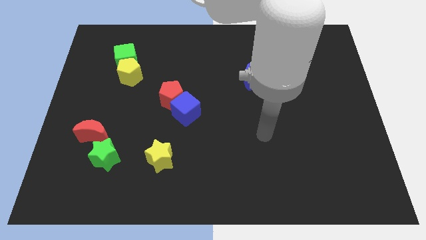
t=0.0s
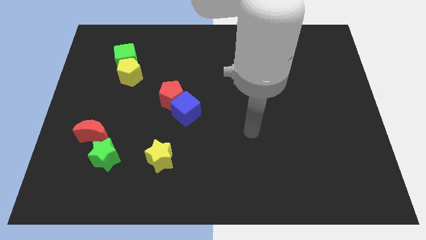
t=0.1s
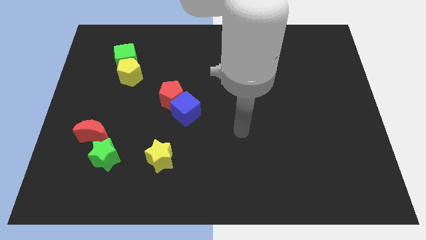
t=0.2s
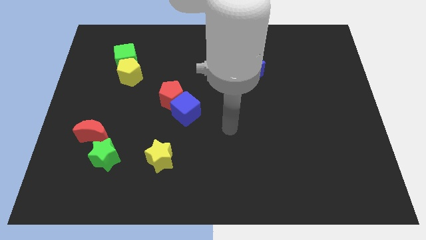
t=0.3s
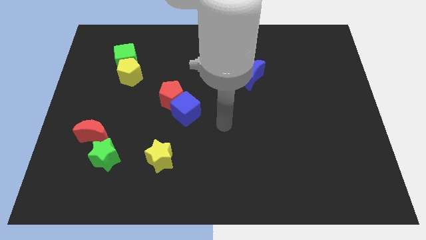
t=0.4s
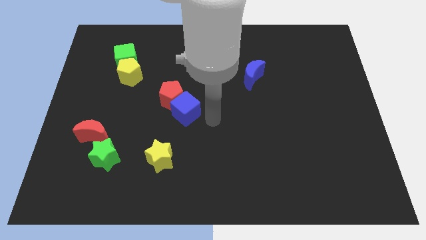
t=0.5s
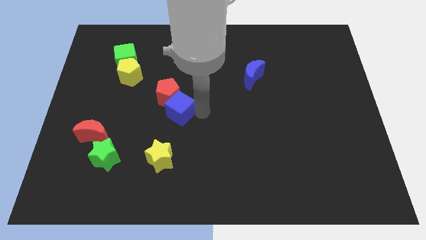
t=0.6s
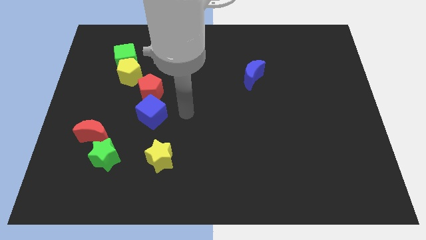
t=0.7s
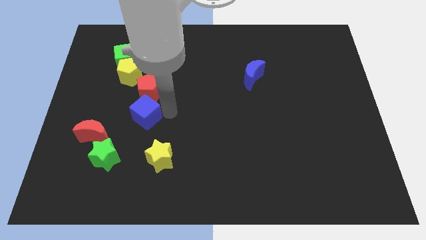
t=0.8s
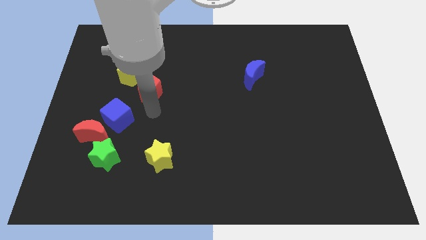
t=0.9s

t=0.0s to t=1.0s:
move the red pentagon away from the blue cube

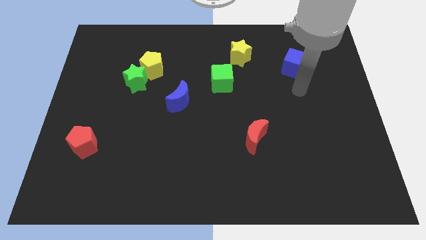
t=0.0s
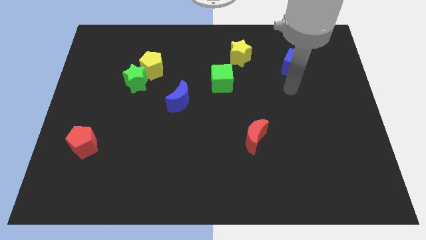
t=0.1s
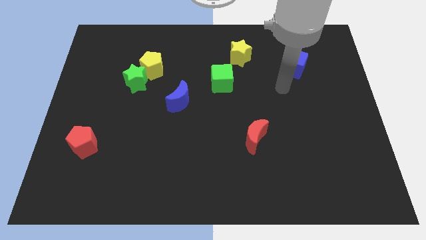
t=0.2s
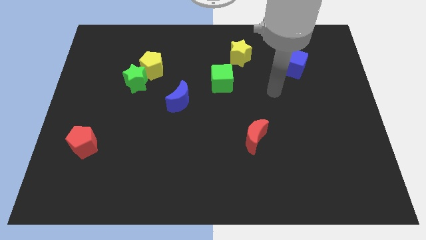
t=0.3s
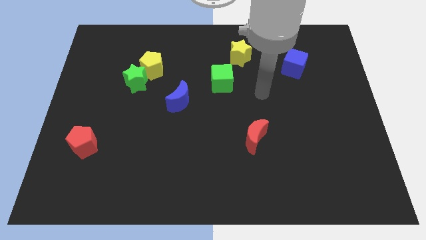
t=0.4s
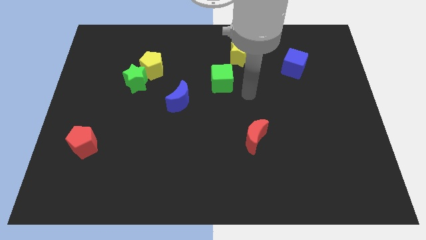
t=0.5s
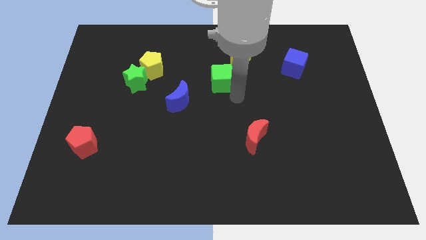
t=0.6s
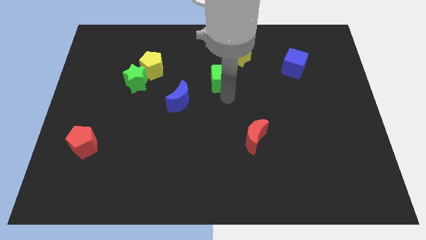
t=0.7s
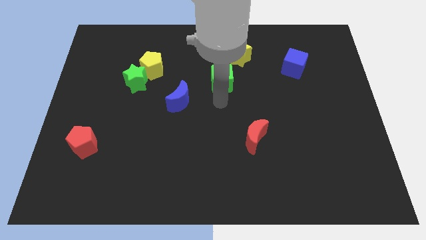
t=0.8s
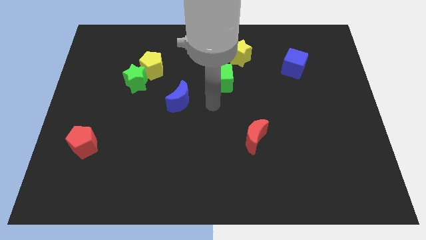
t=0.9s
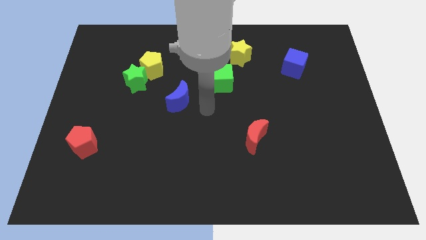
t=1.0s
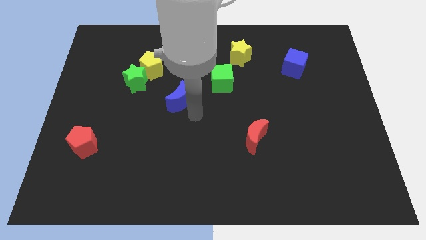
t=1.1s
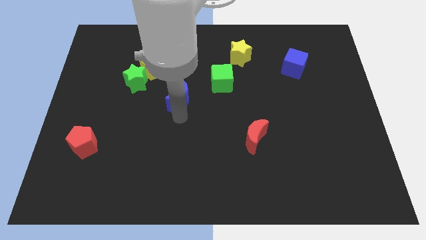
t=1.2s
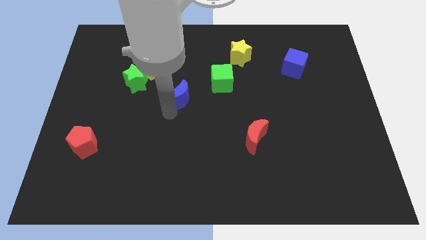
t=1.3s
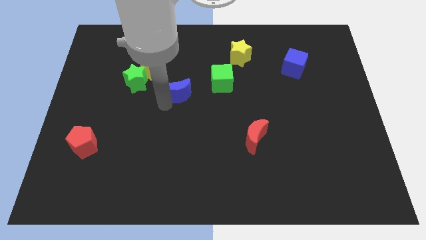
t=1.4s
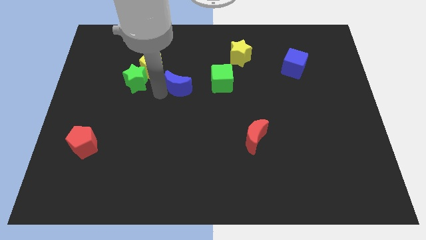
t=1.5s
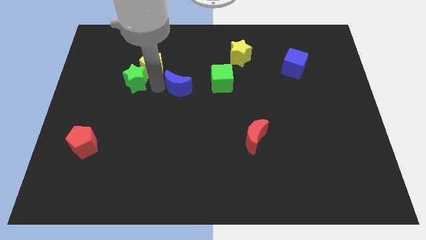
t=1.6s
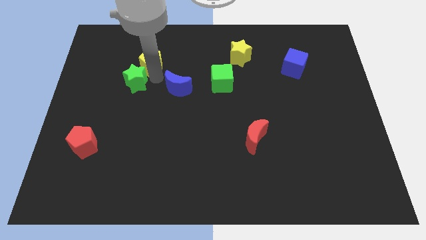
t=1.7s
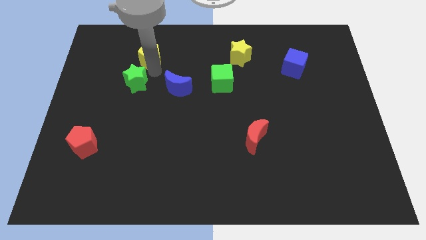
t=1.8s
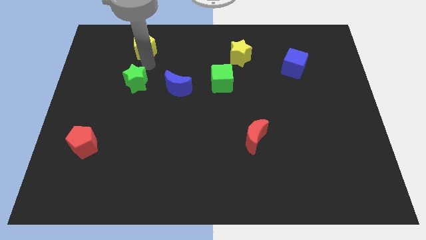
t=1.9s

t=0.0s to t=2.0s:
move the green star away from the yellow pentagon

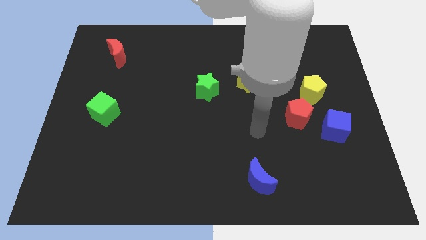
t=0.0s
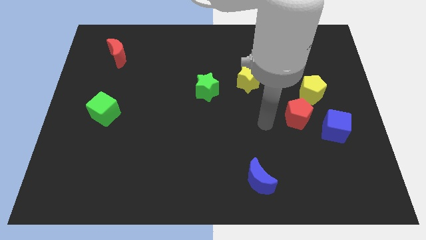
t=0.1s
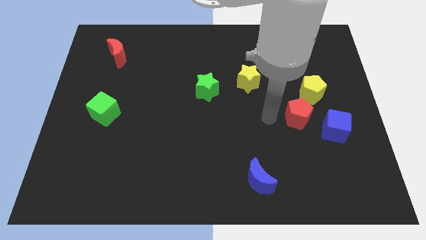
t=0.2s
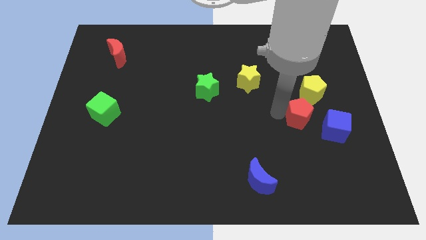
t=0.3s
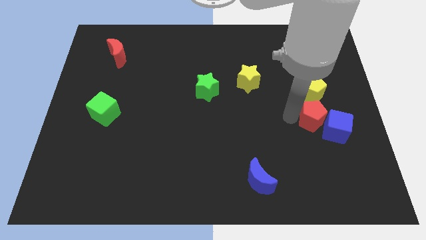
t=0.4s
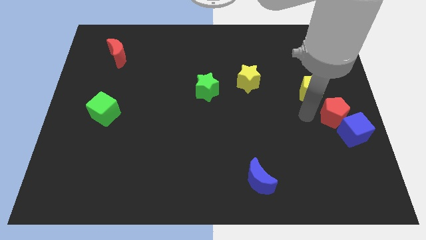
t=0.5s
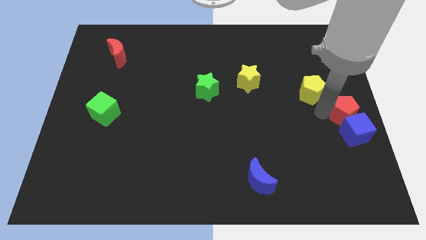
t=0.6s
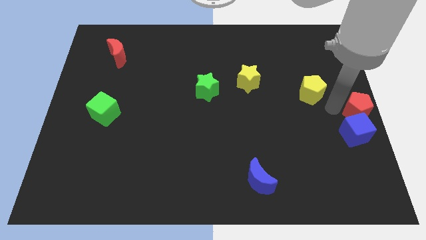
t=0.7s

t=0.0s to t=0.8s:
pull the yellow pentagon apart from the red pentagon

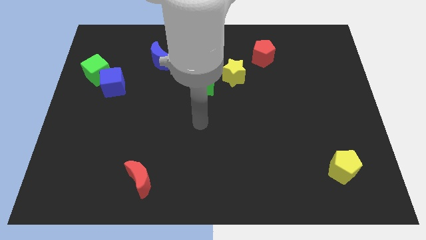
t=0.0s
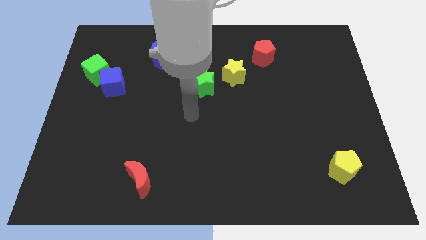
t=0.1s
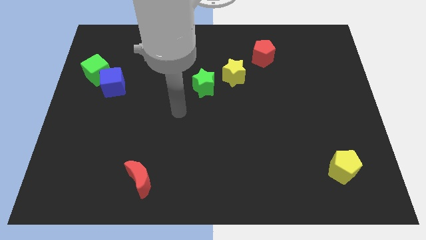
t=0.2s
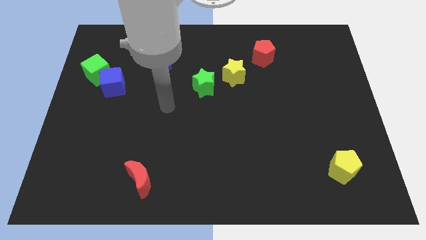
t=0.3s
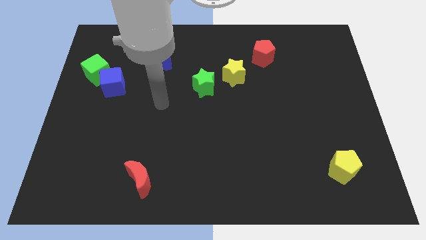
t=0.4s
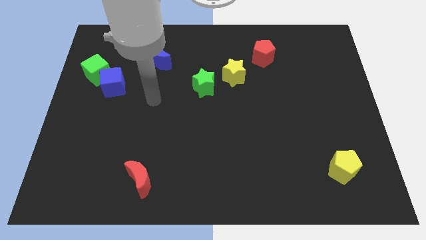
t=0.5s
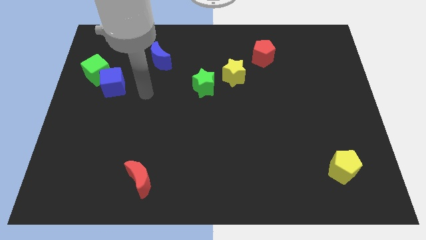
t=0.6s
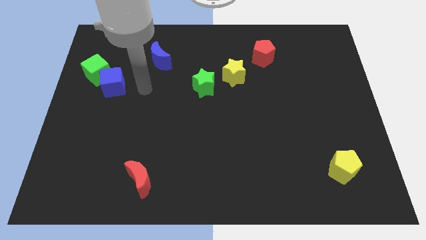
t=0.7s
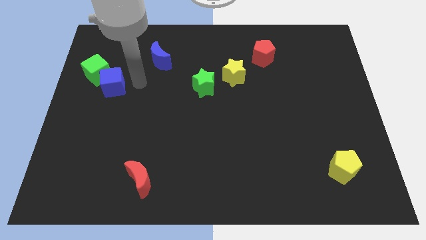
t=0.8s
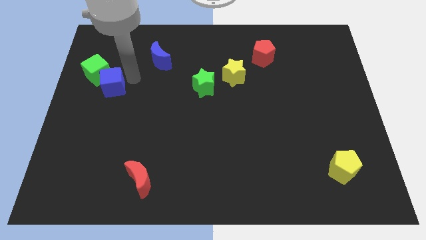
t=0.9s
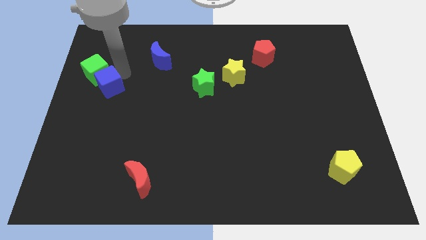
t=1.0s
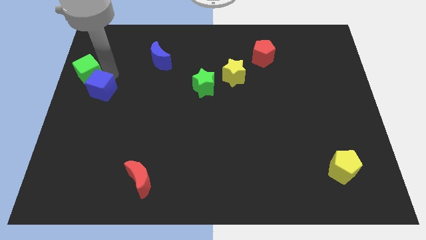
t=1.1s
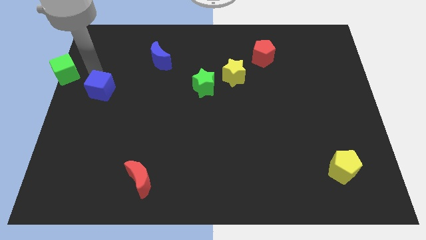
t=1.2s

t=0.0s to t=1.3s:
separate the blue cube from the green cube

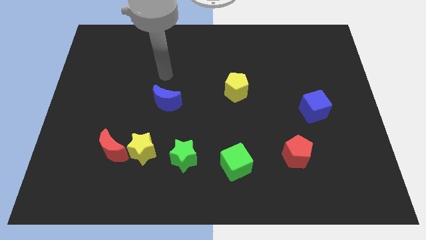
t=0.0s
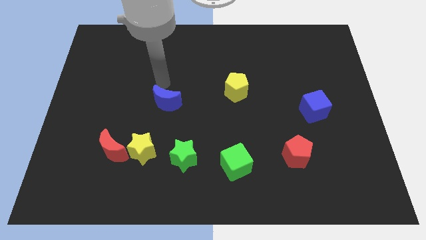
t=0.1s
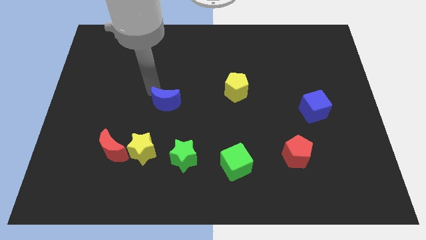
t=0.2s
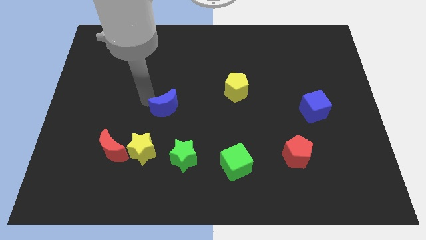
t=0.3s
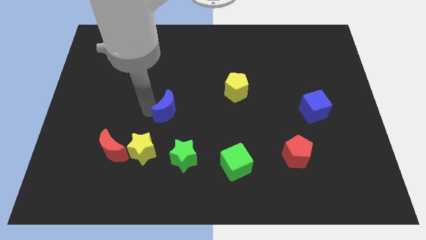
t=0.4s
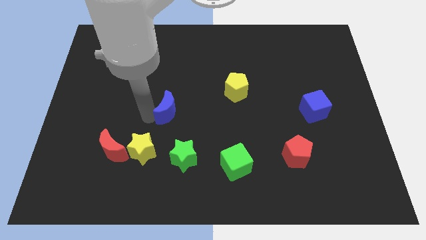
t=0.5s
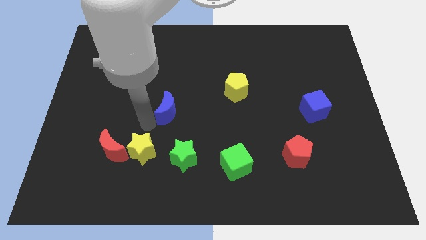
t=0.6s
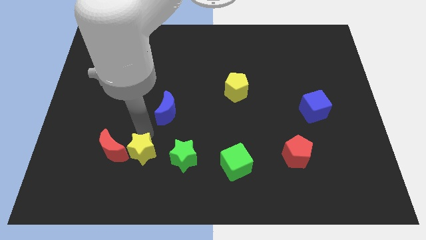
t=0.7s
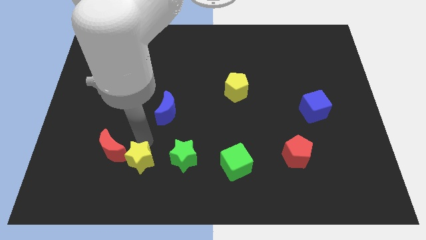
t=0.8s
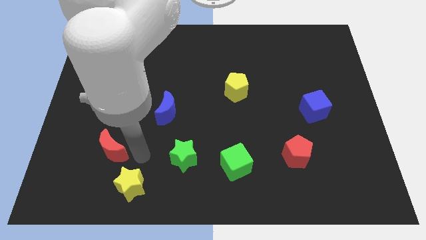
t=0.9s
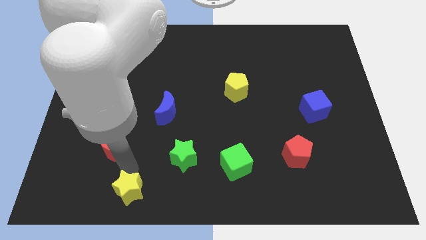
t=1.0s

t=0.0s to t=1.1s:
pull the red moon apart from the yellow star

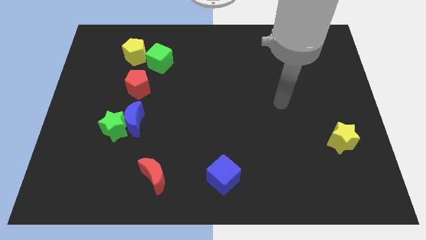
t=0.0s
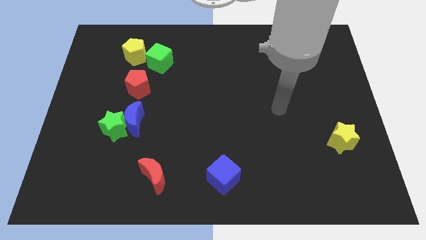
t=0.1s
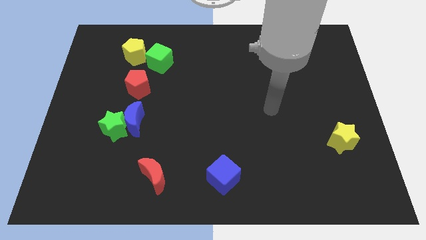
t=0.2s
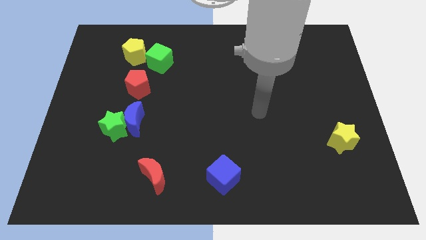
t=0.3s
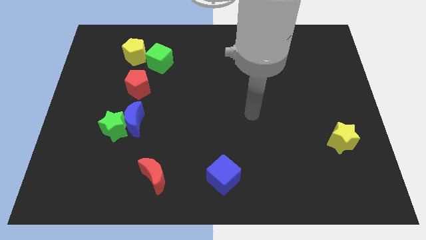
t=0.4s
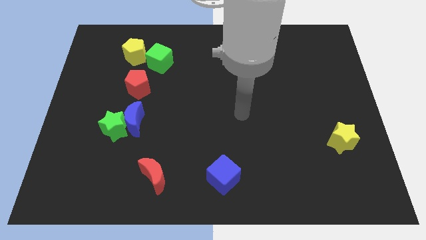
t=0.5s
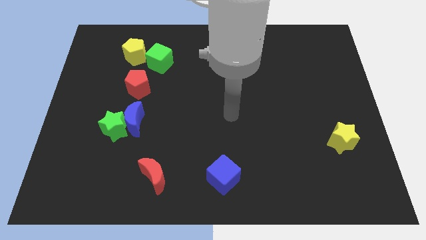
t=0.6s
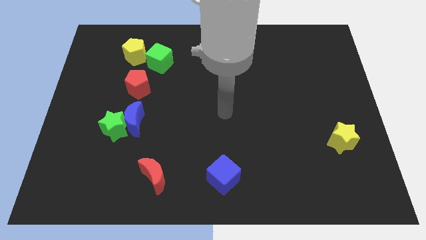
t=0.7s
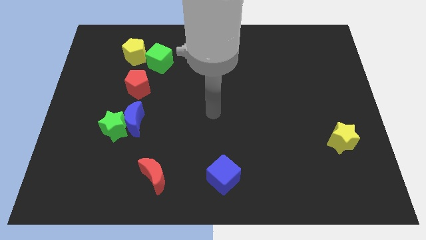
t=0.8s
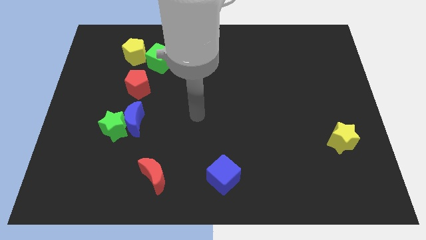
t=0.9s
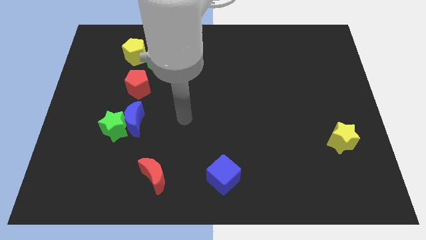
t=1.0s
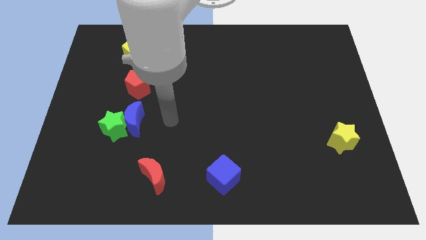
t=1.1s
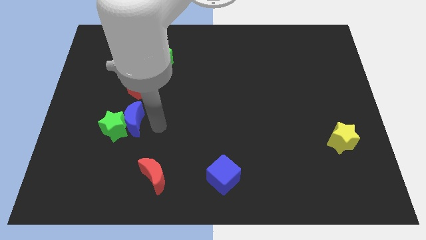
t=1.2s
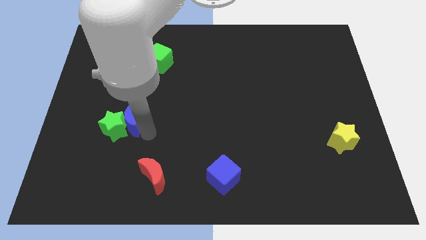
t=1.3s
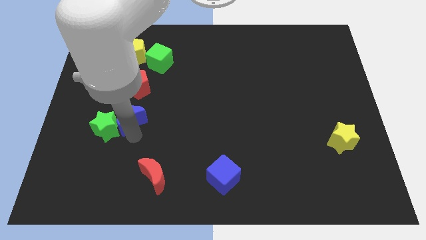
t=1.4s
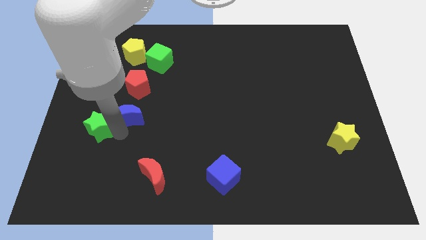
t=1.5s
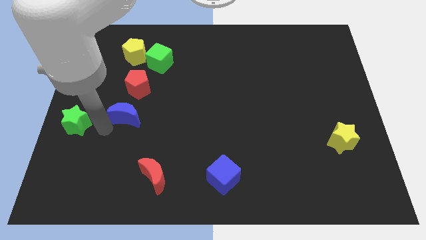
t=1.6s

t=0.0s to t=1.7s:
pull the blue moon apart from the green star

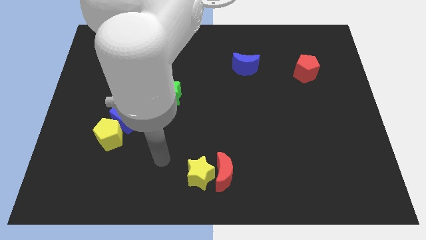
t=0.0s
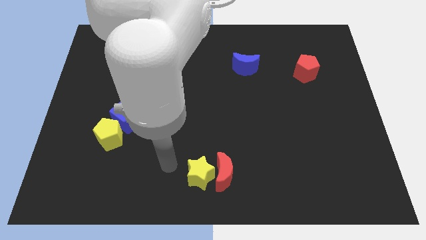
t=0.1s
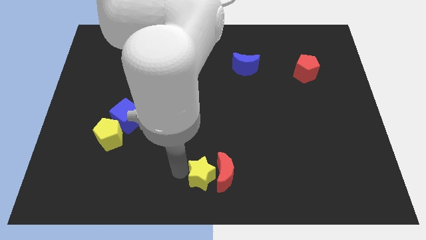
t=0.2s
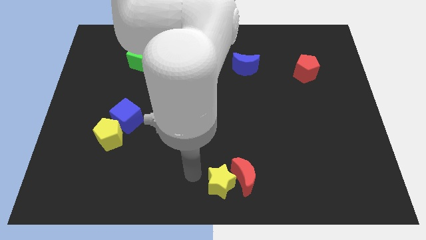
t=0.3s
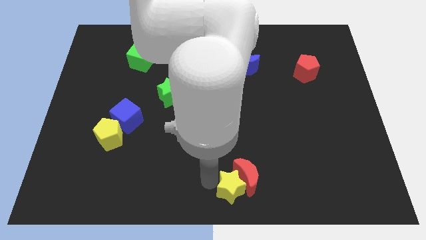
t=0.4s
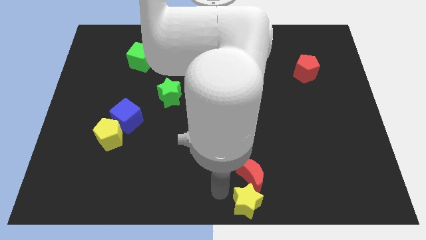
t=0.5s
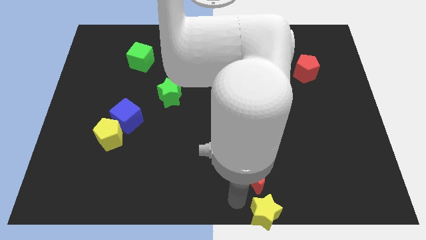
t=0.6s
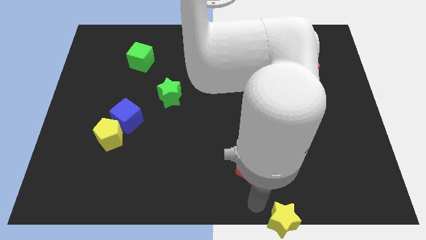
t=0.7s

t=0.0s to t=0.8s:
move the red moon away from the yellow star

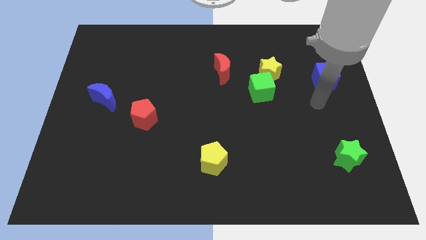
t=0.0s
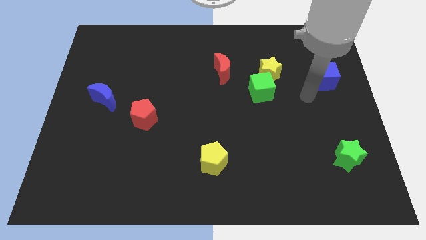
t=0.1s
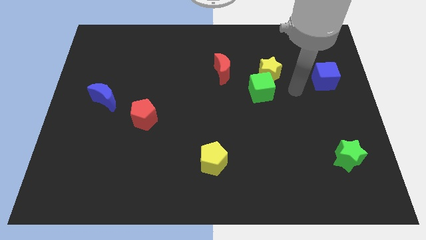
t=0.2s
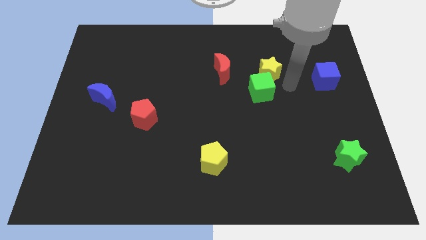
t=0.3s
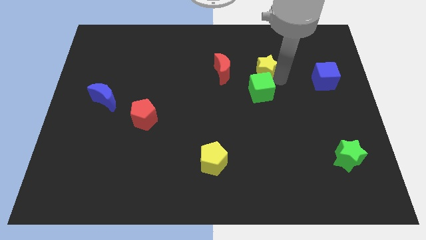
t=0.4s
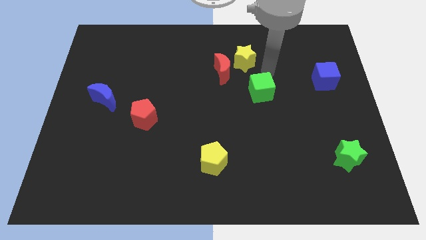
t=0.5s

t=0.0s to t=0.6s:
move the green cube away from the yellow star
